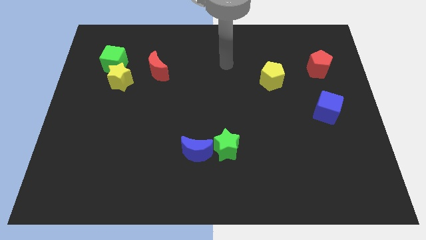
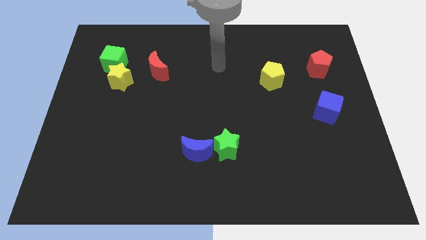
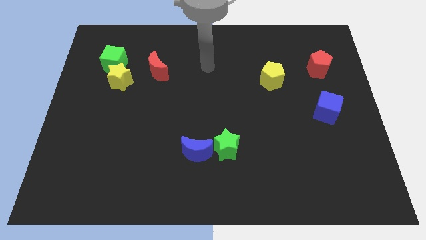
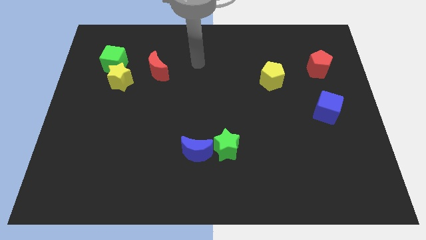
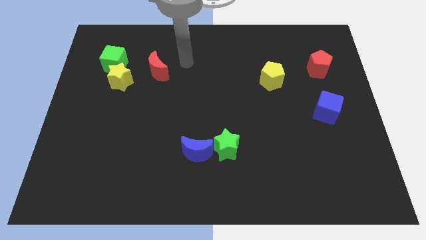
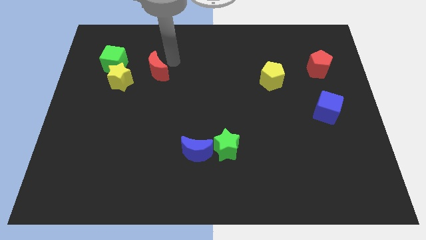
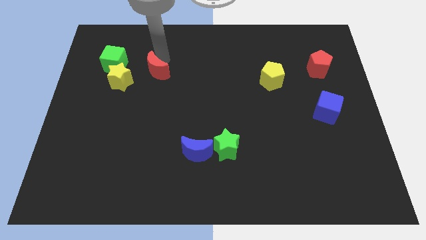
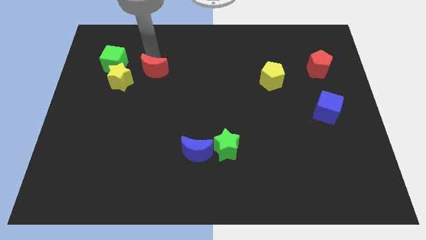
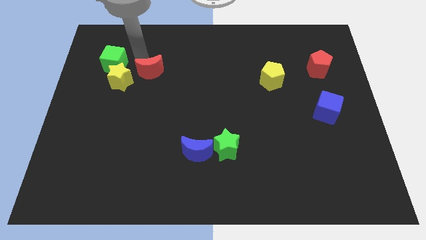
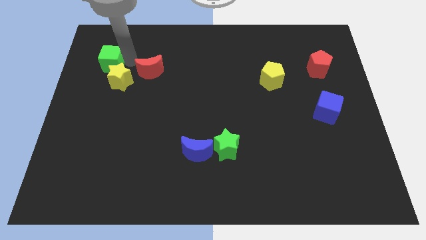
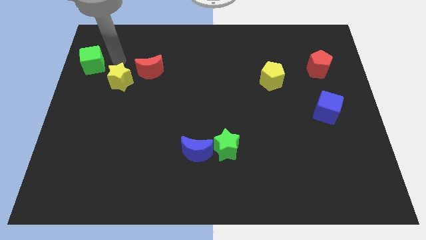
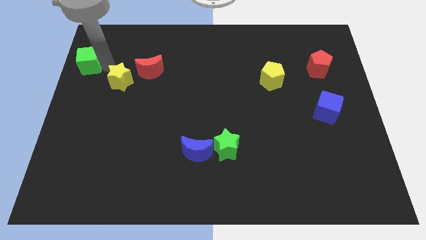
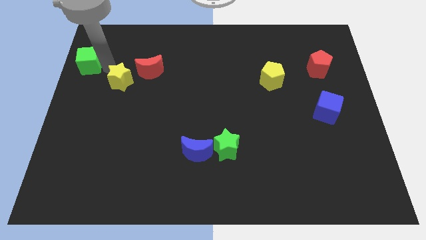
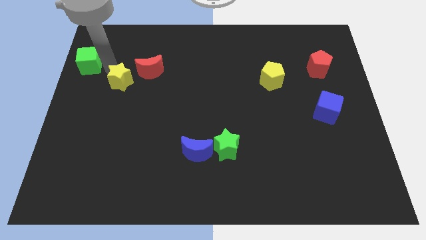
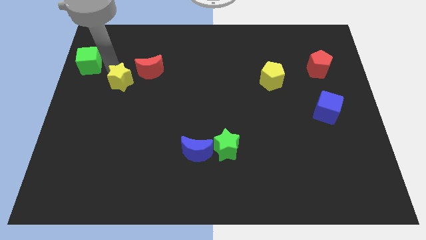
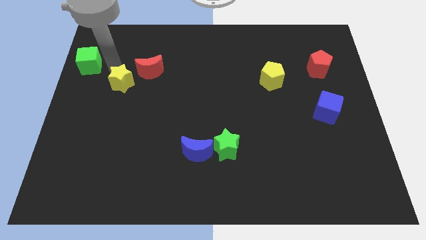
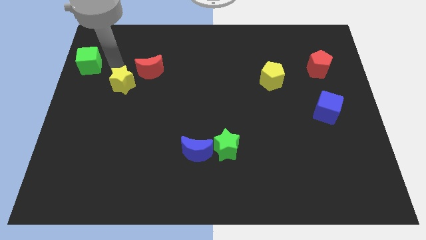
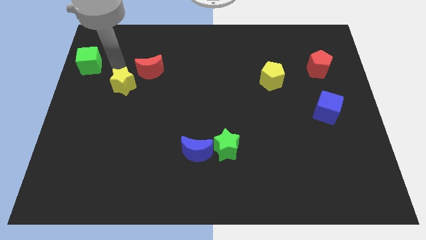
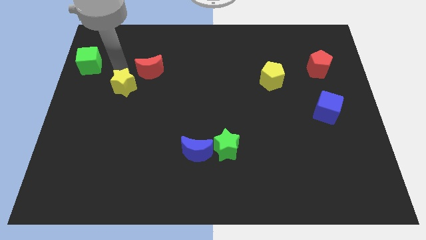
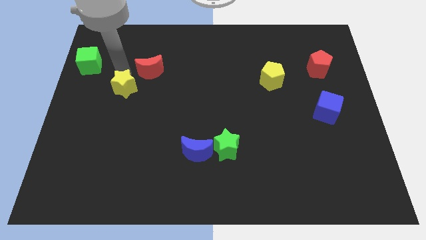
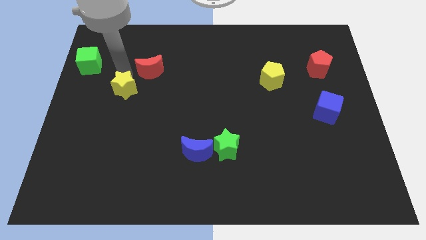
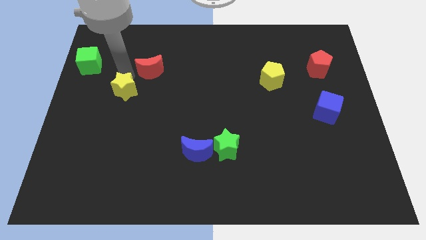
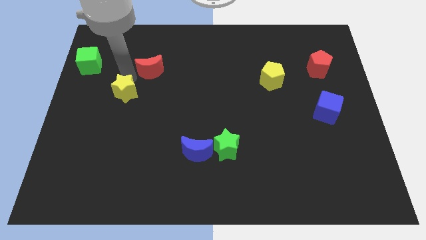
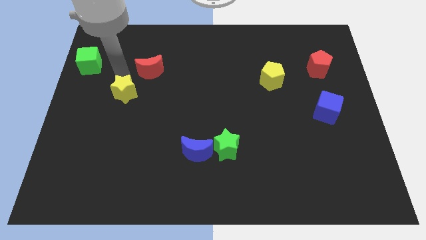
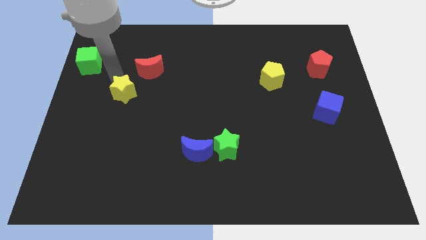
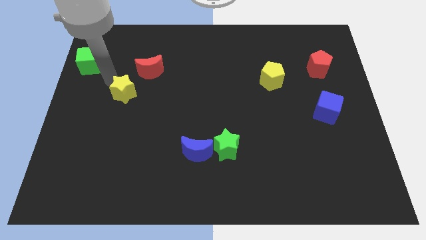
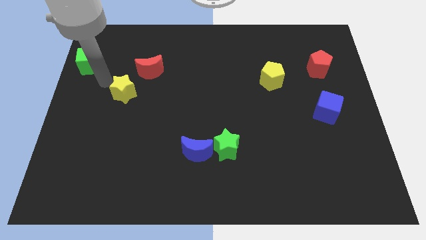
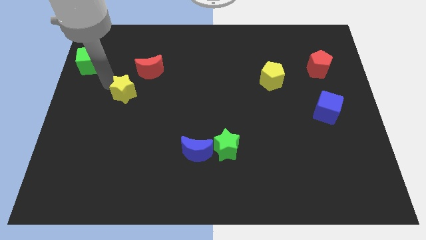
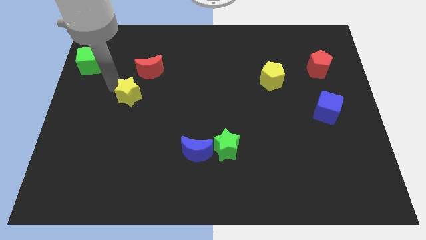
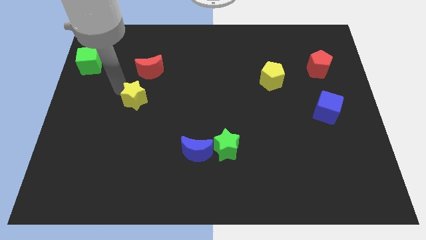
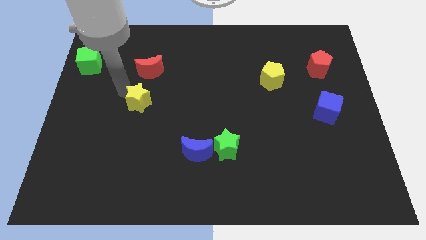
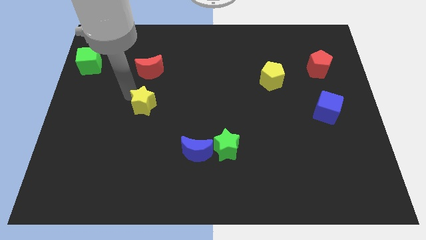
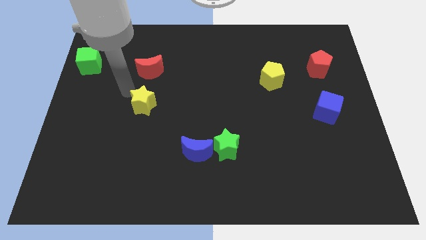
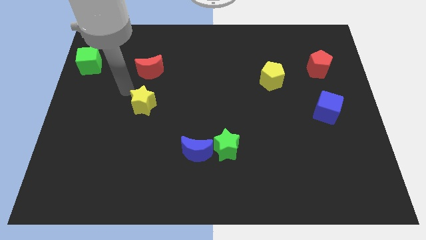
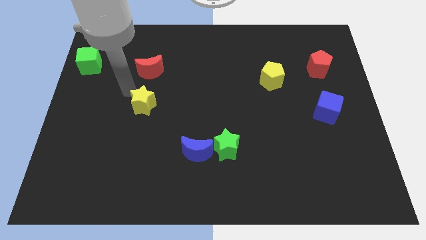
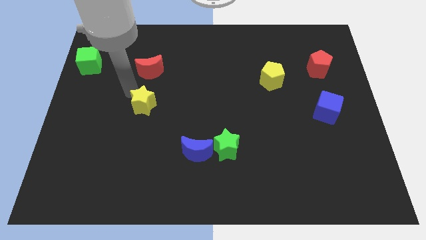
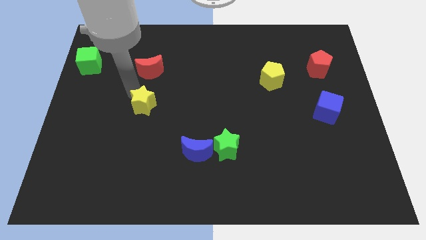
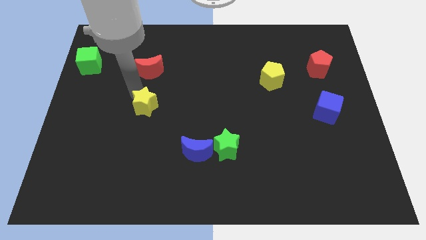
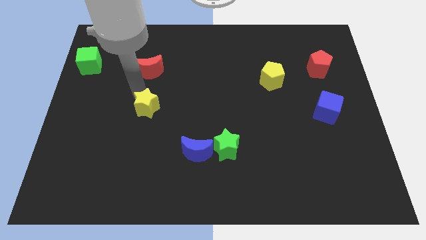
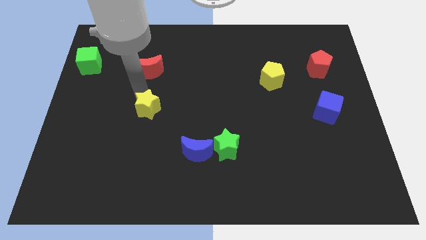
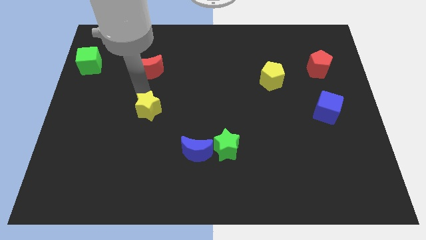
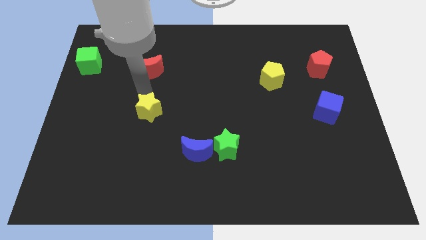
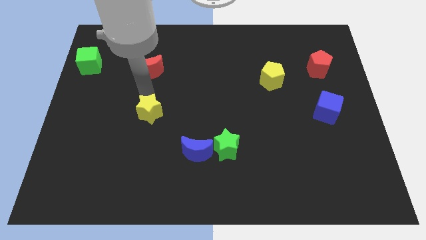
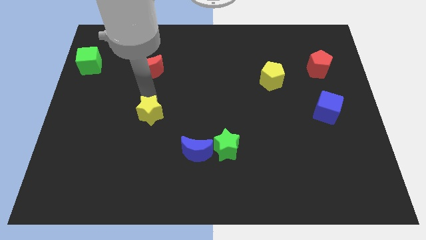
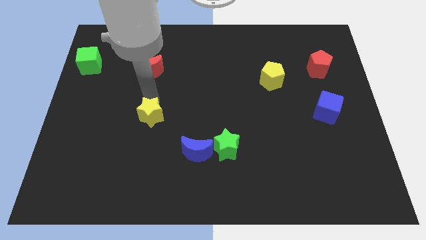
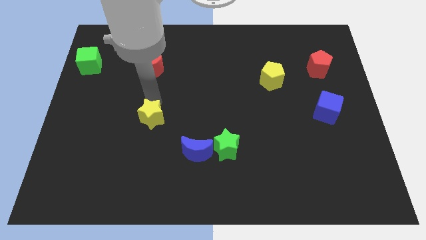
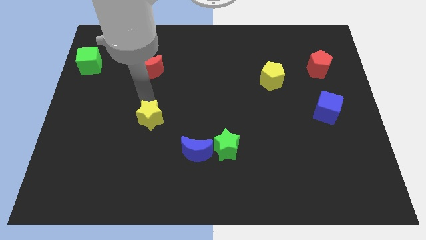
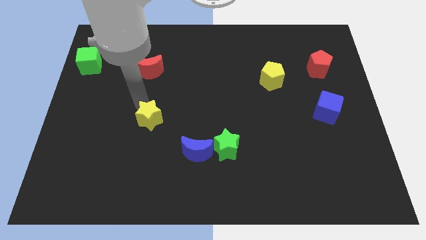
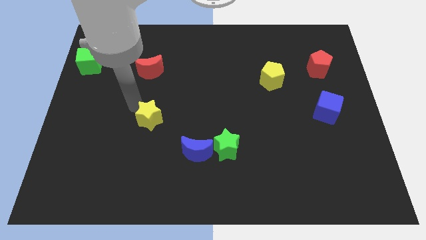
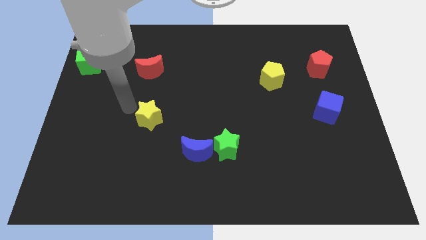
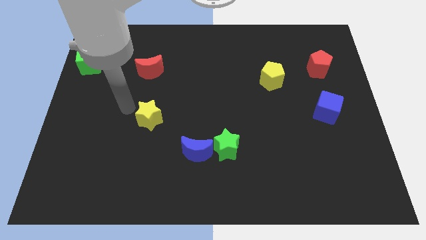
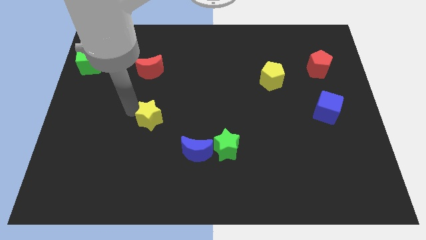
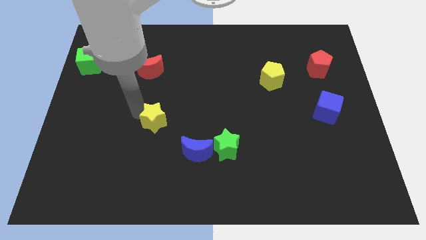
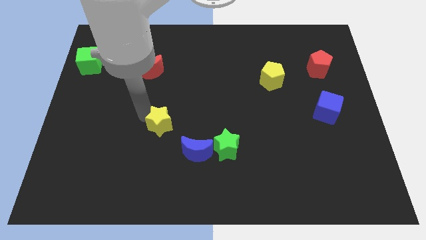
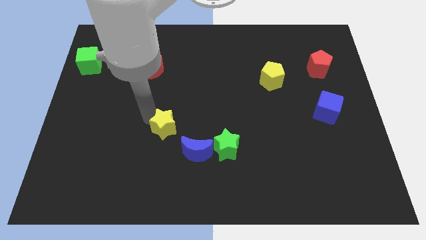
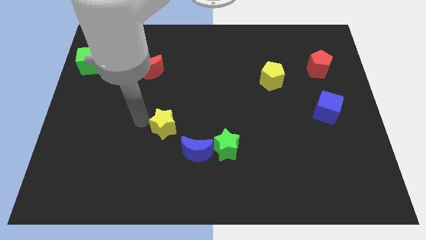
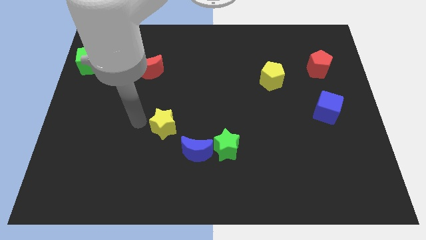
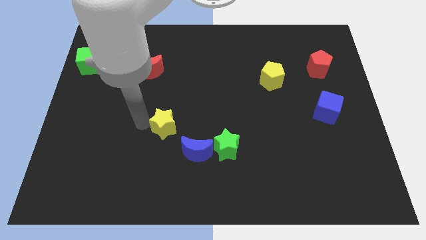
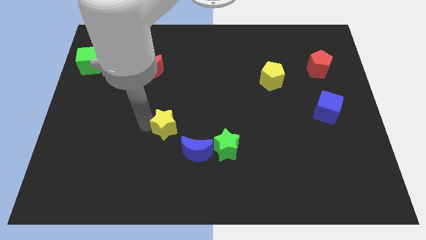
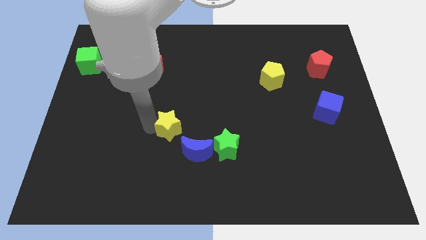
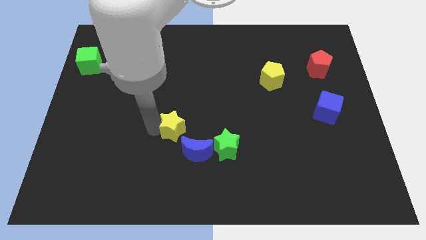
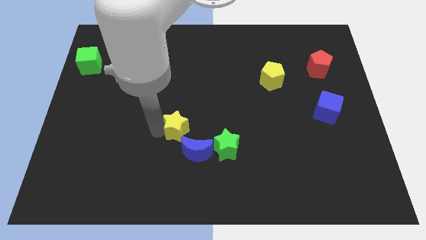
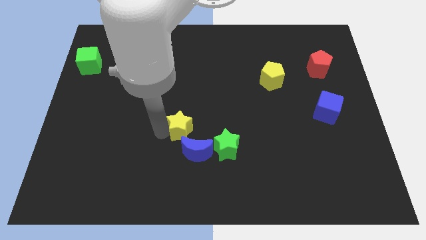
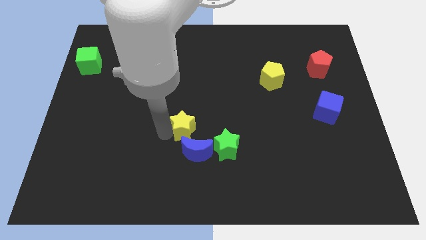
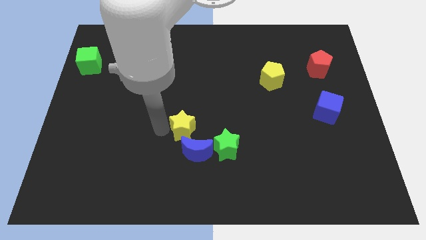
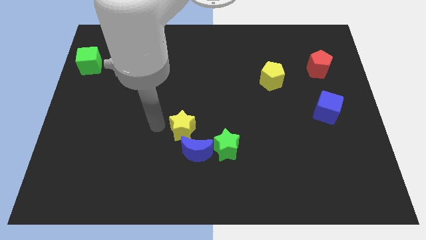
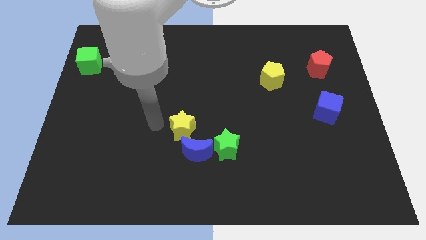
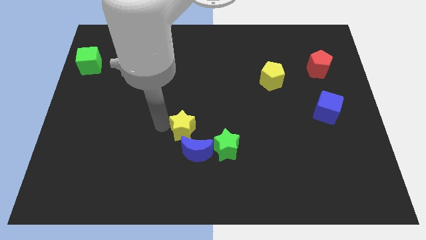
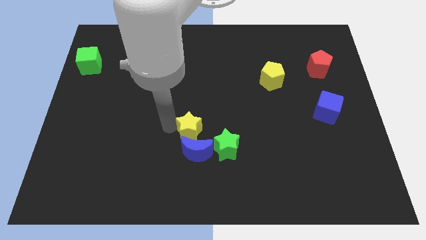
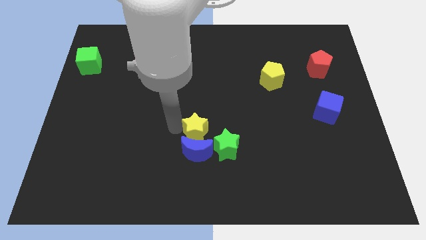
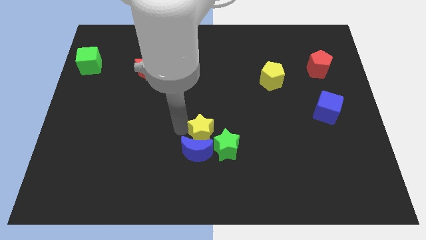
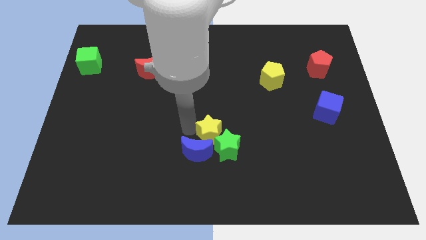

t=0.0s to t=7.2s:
put the yellow star towards the green star

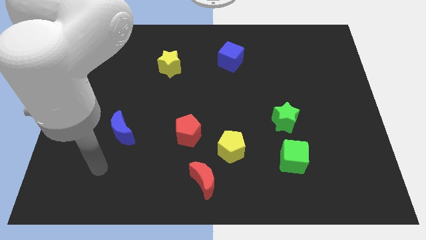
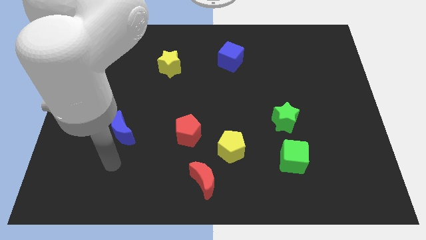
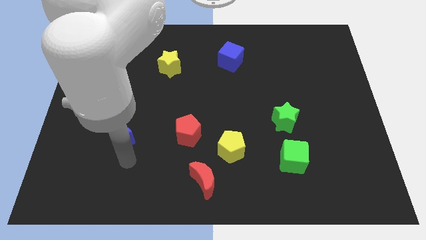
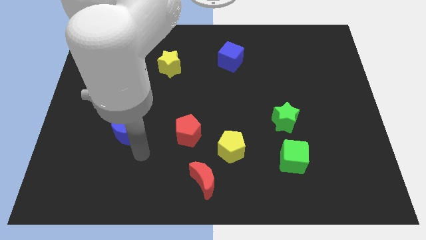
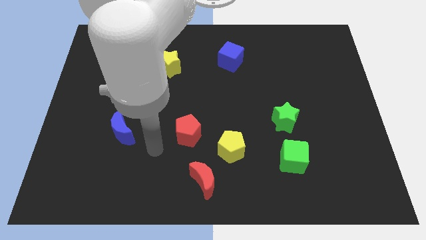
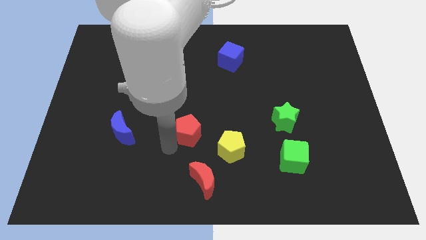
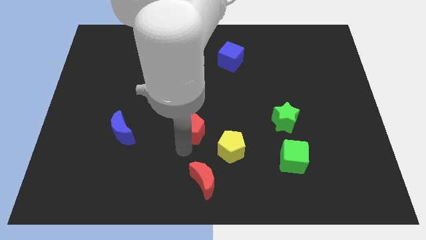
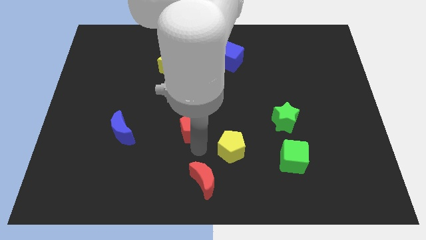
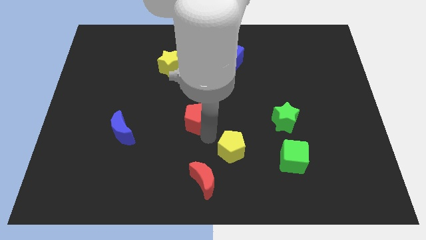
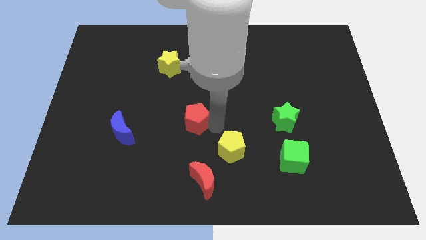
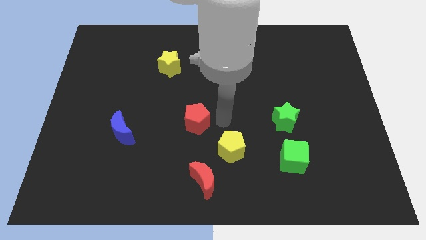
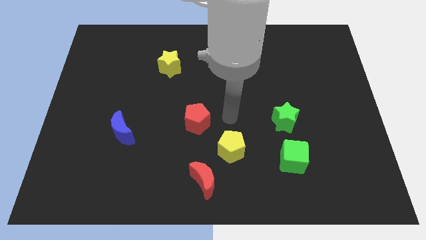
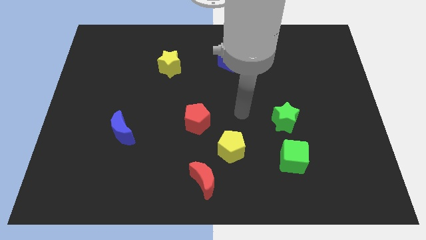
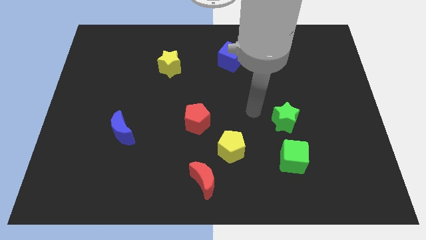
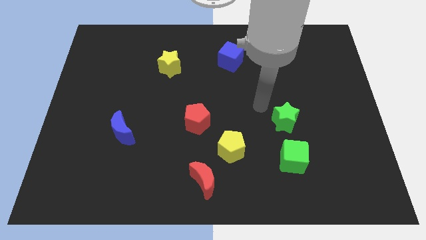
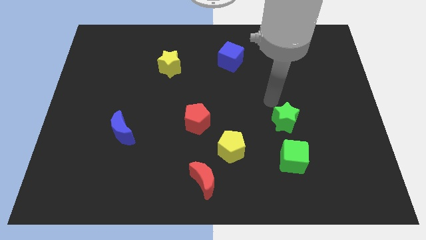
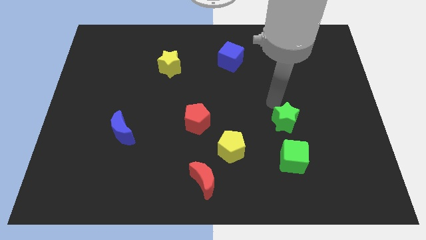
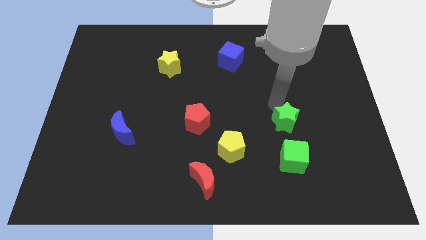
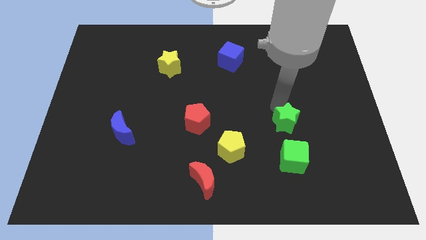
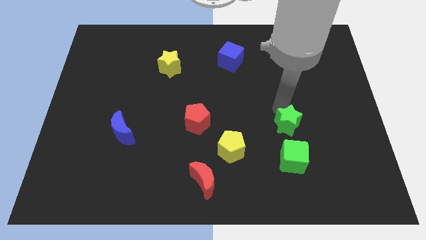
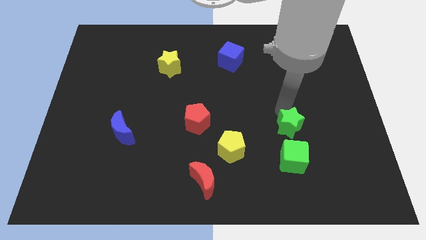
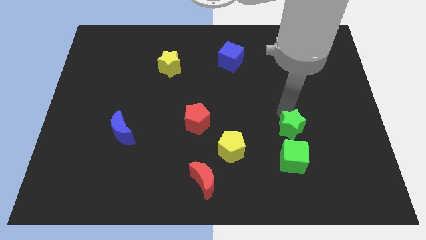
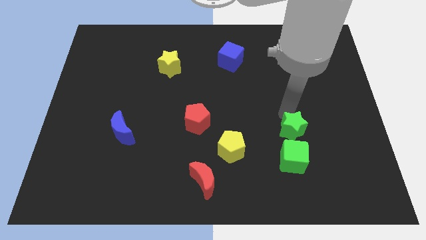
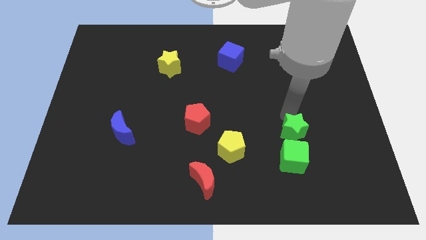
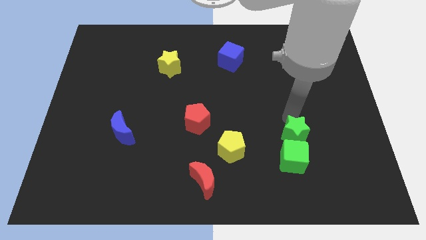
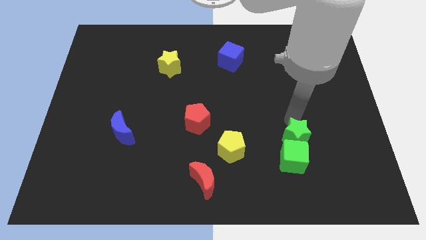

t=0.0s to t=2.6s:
put the green star close to the green cube
